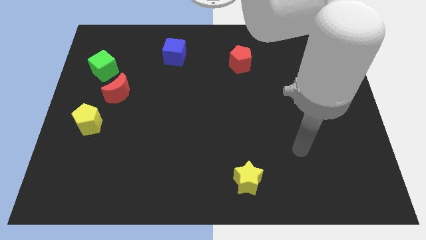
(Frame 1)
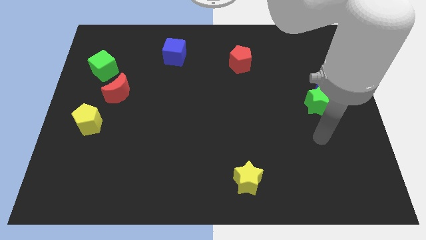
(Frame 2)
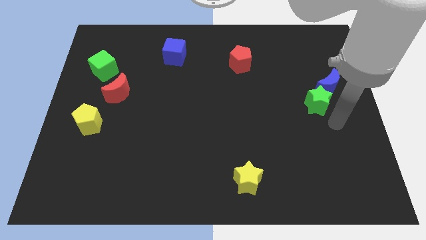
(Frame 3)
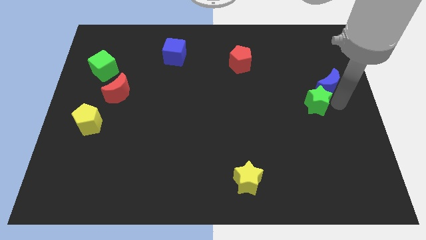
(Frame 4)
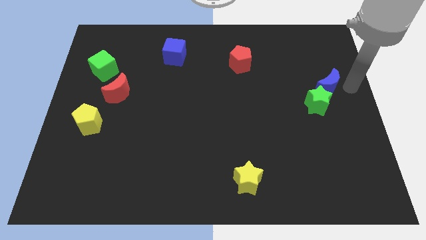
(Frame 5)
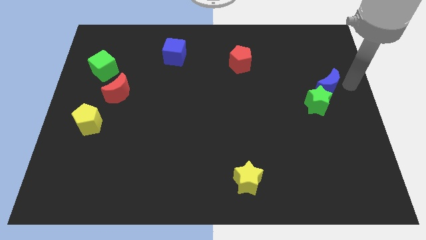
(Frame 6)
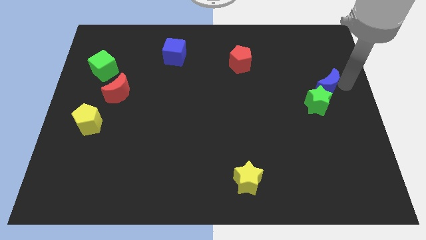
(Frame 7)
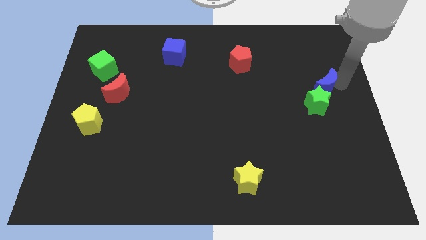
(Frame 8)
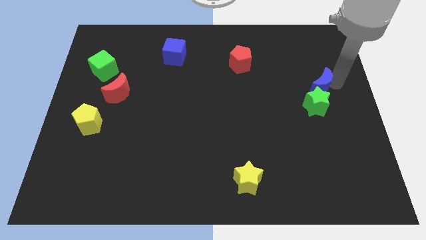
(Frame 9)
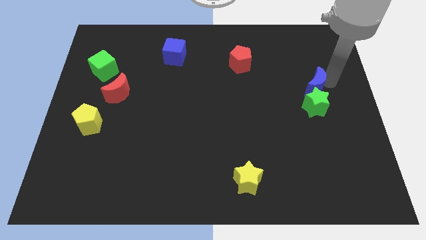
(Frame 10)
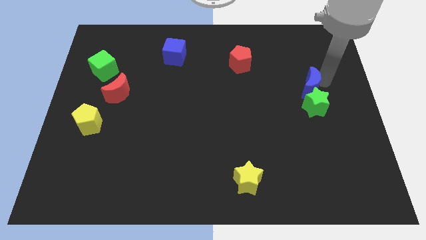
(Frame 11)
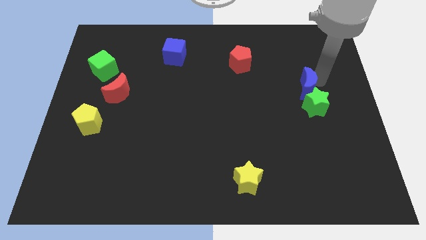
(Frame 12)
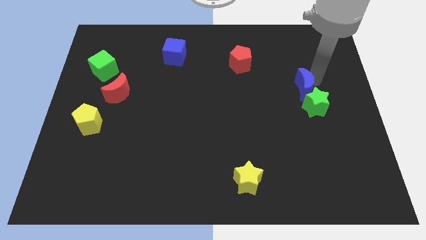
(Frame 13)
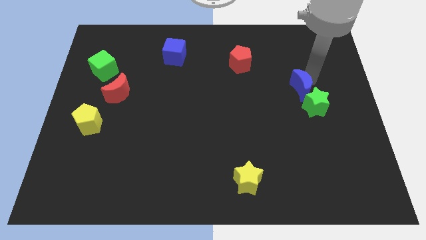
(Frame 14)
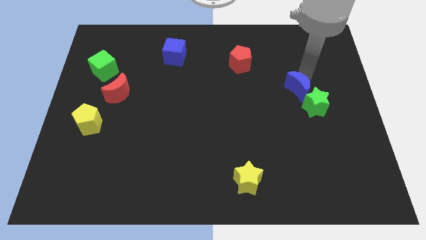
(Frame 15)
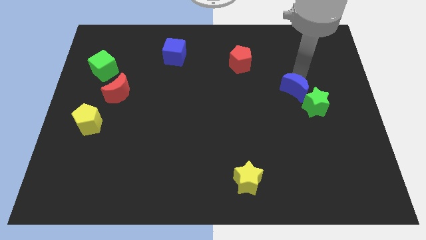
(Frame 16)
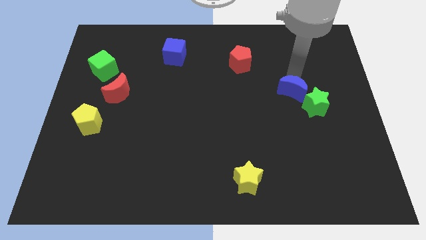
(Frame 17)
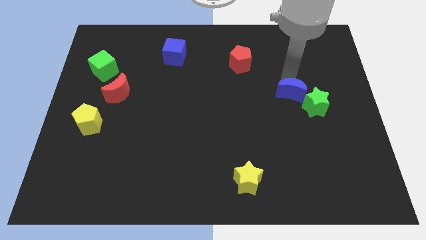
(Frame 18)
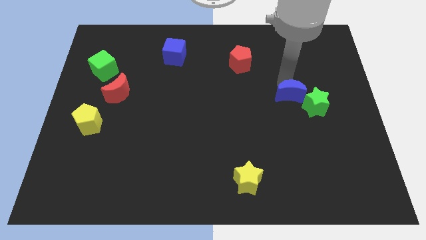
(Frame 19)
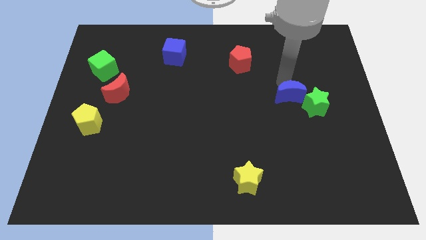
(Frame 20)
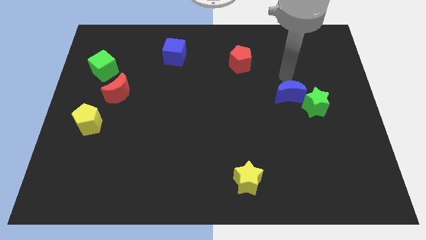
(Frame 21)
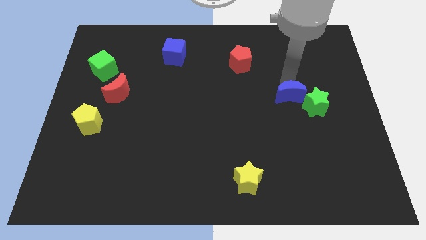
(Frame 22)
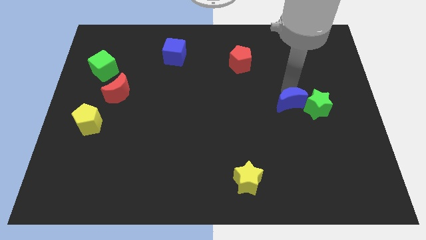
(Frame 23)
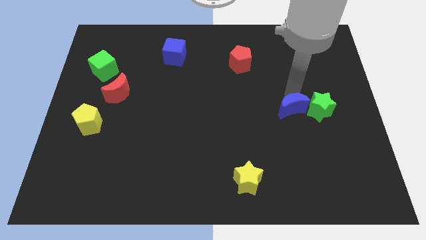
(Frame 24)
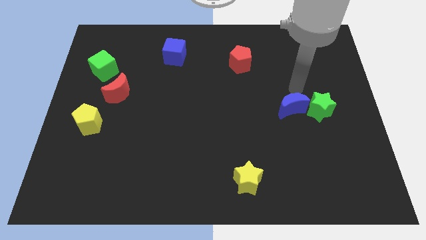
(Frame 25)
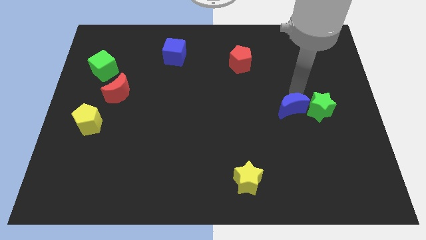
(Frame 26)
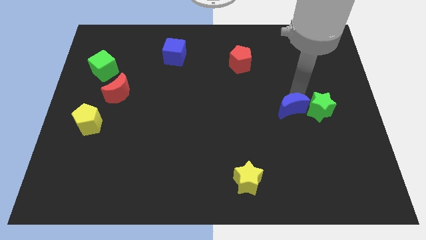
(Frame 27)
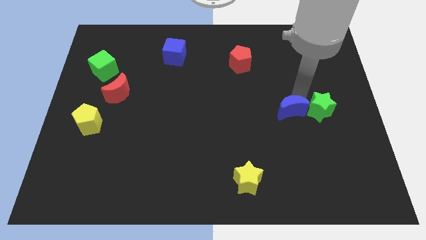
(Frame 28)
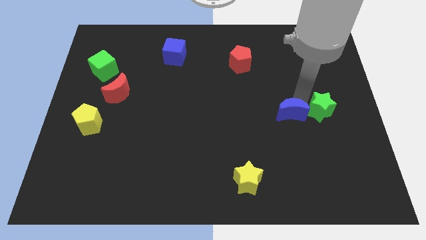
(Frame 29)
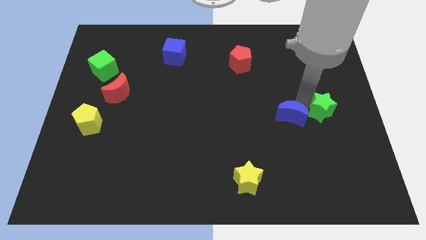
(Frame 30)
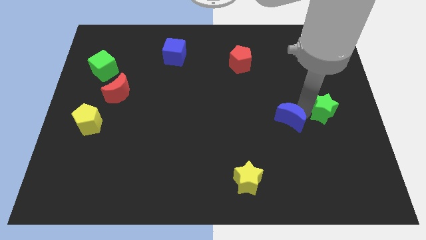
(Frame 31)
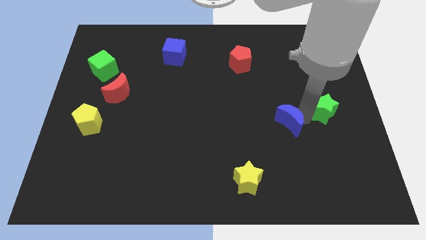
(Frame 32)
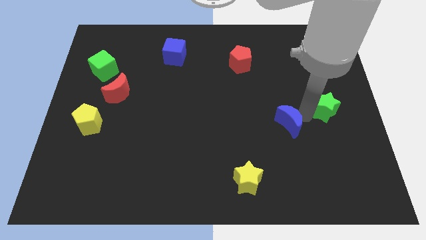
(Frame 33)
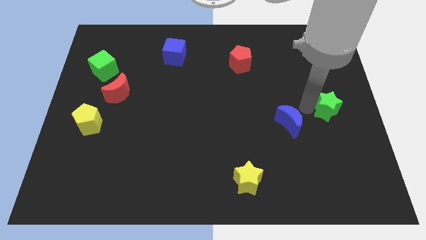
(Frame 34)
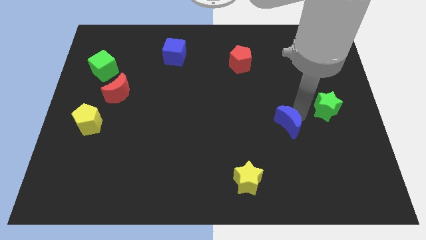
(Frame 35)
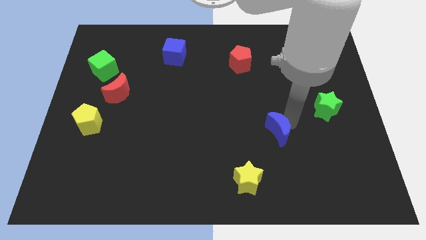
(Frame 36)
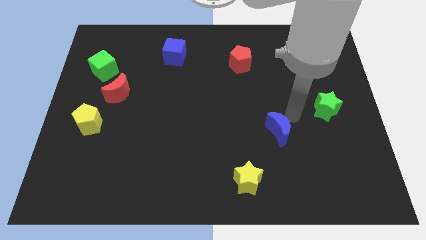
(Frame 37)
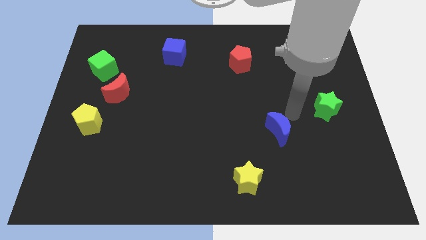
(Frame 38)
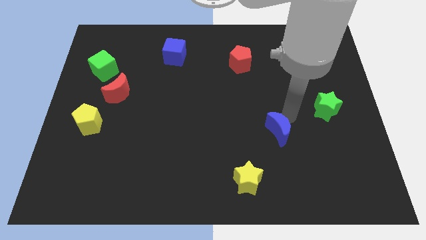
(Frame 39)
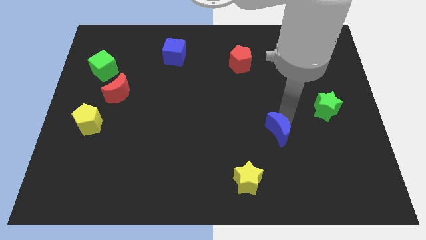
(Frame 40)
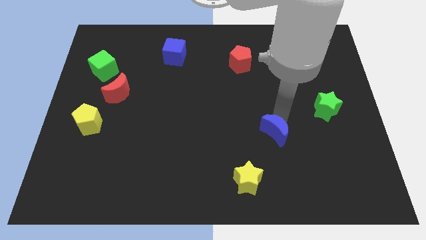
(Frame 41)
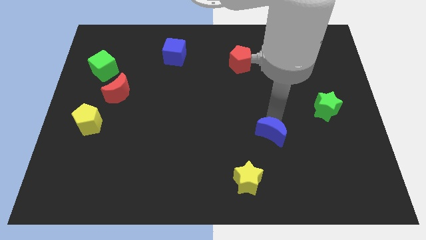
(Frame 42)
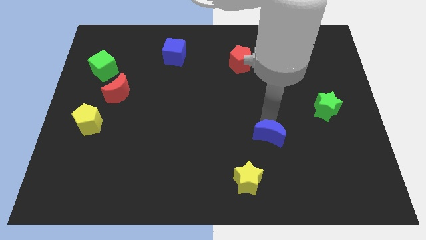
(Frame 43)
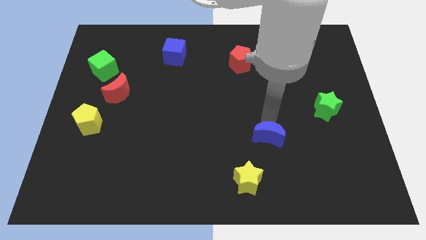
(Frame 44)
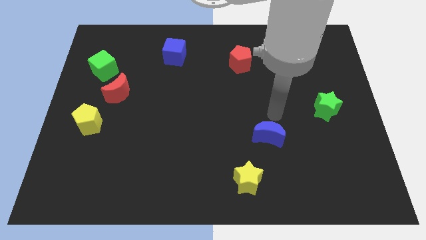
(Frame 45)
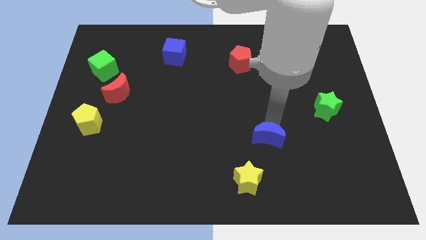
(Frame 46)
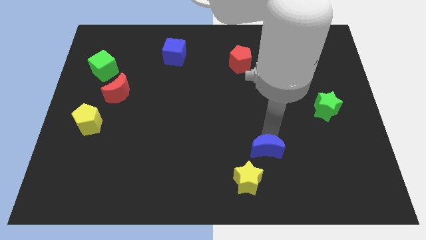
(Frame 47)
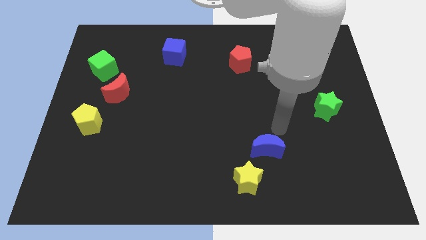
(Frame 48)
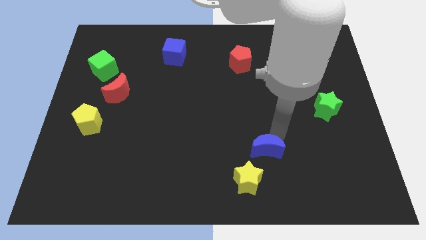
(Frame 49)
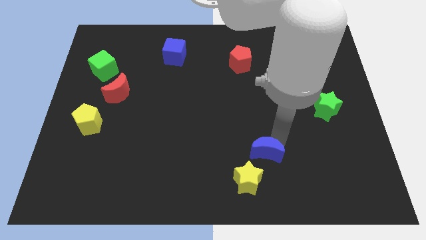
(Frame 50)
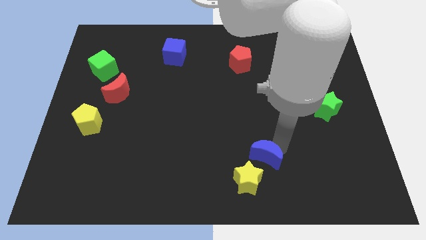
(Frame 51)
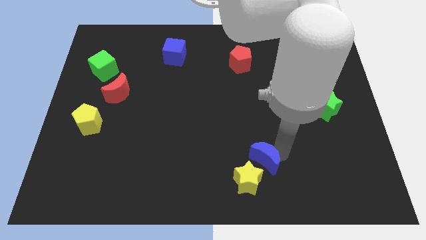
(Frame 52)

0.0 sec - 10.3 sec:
slide the blue moon close to the yellow star

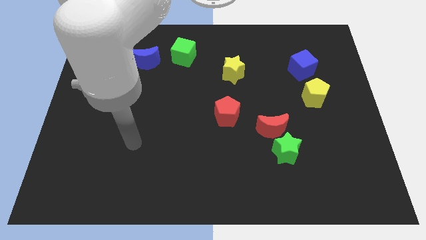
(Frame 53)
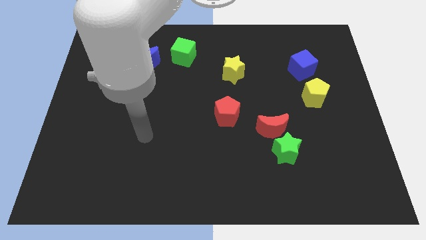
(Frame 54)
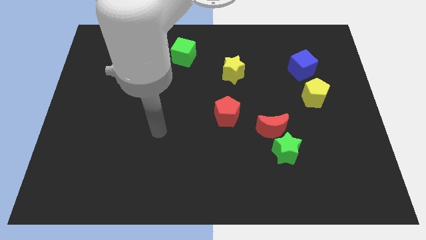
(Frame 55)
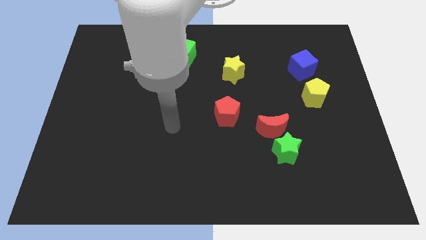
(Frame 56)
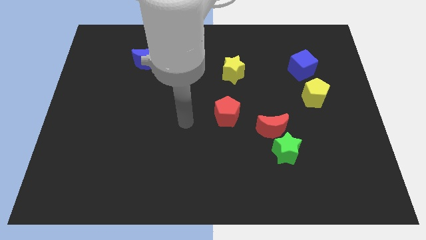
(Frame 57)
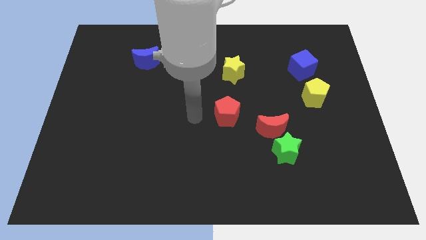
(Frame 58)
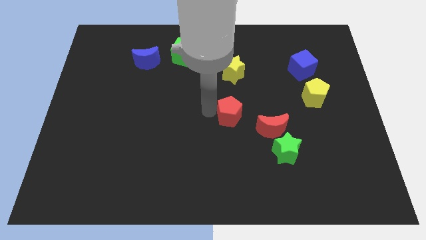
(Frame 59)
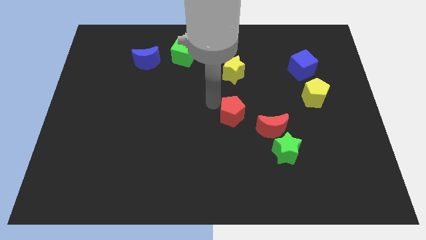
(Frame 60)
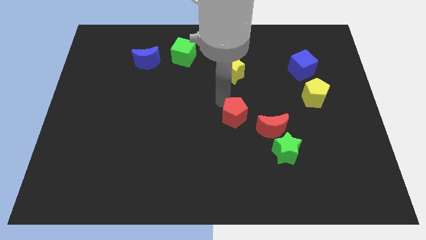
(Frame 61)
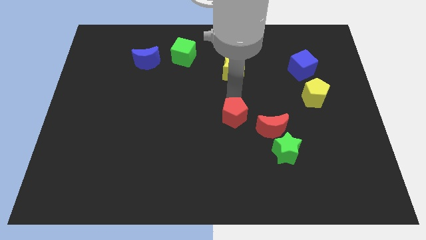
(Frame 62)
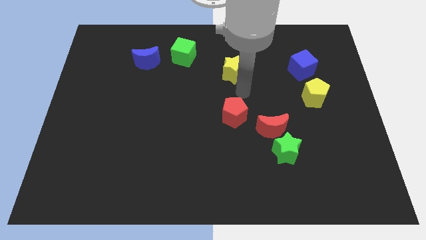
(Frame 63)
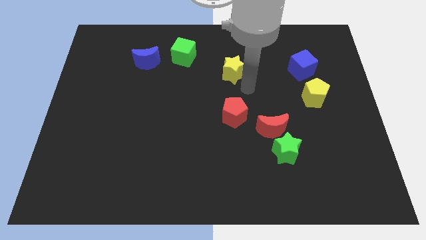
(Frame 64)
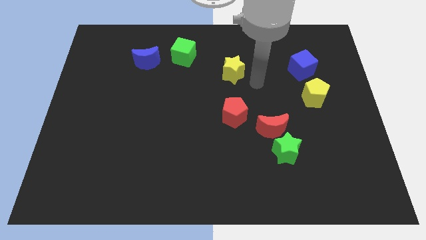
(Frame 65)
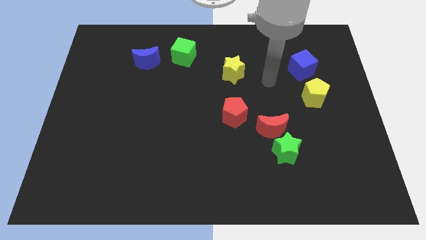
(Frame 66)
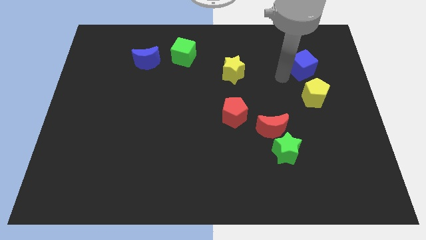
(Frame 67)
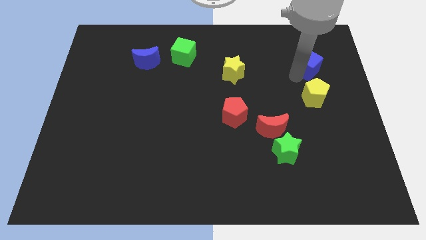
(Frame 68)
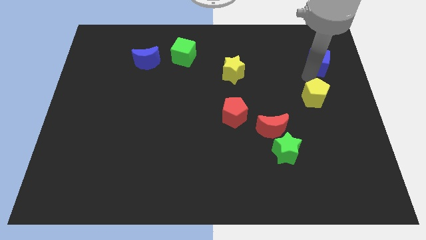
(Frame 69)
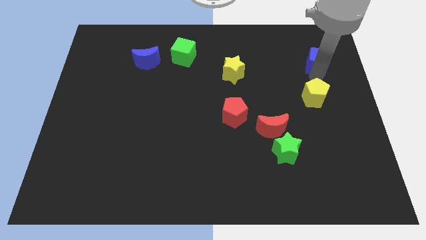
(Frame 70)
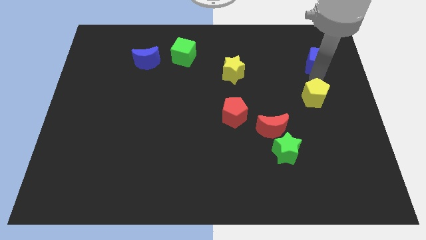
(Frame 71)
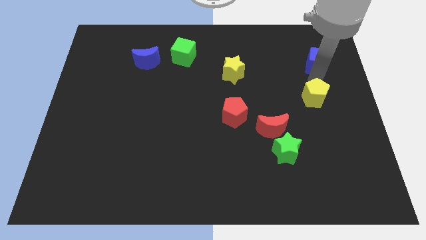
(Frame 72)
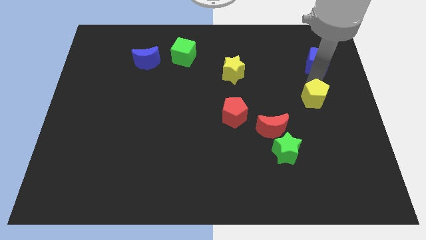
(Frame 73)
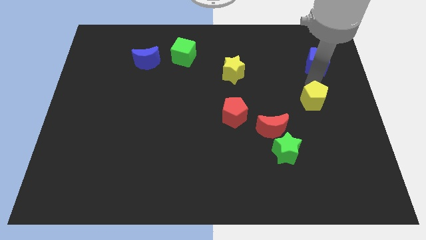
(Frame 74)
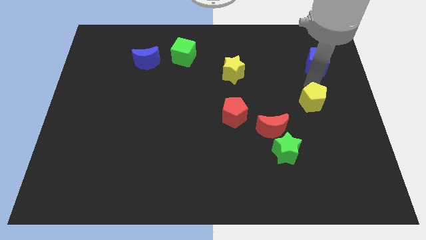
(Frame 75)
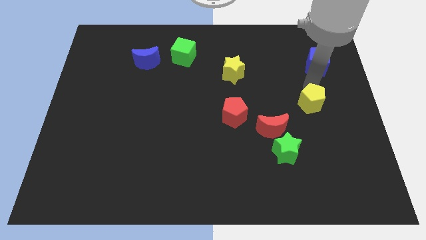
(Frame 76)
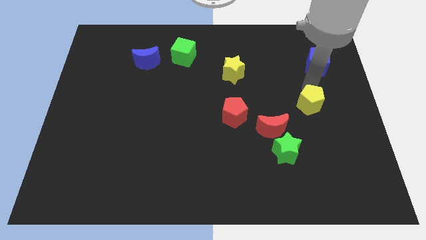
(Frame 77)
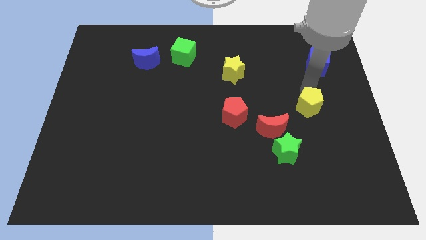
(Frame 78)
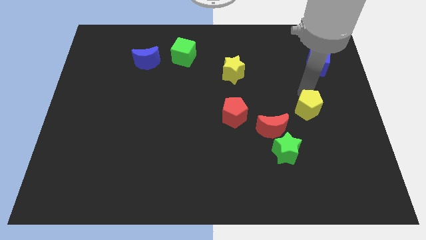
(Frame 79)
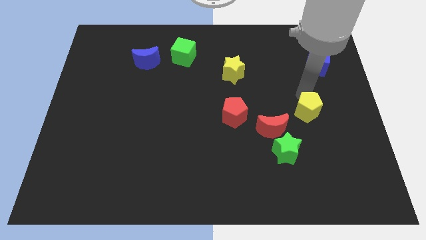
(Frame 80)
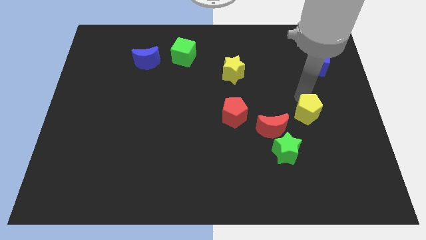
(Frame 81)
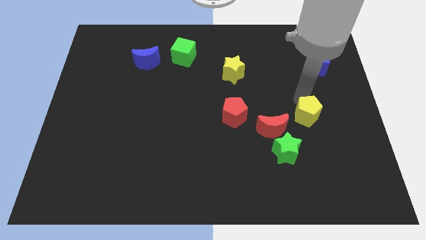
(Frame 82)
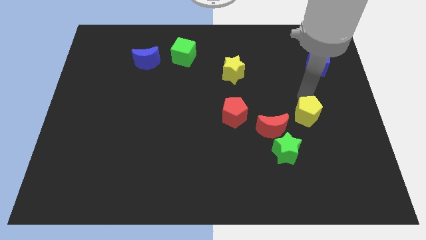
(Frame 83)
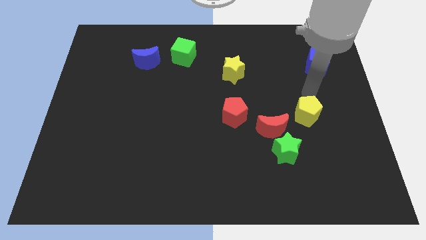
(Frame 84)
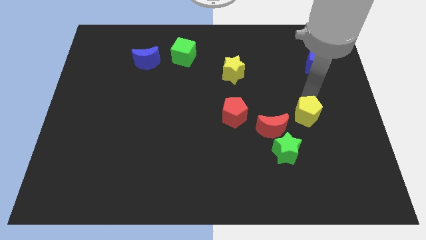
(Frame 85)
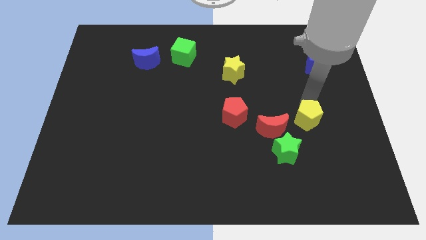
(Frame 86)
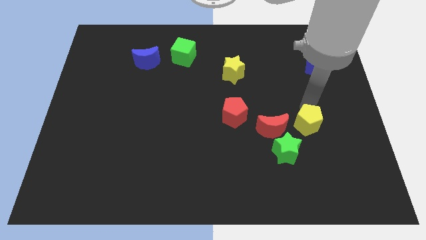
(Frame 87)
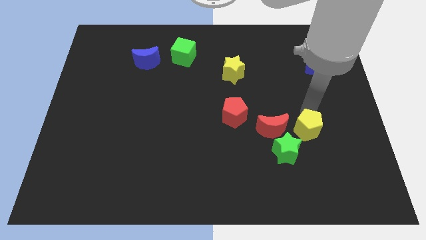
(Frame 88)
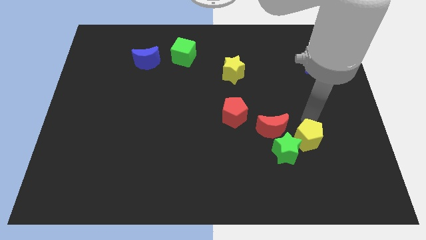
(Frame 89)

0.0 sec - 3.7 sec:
slide the yellow pentagon close to the green star
